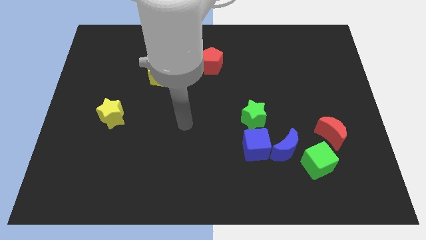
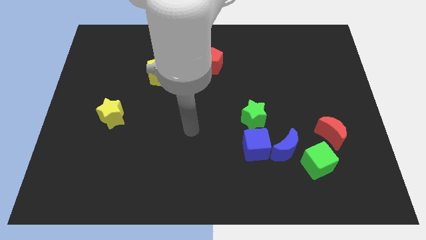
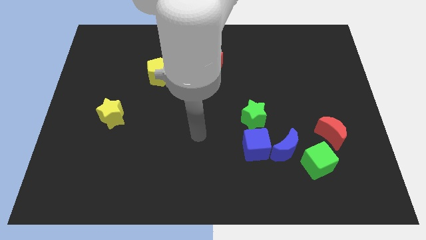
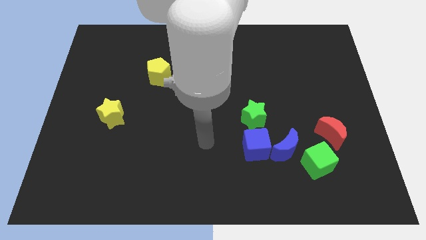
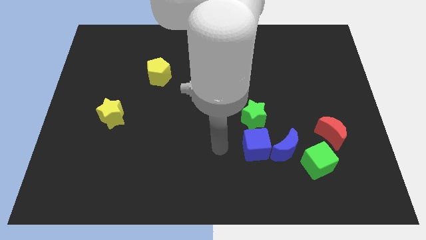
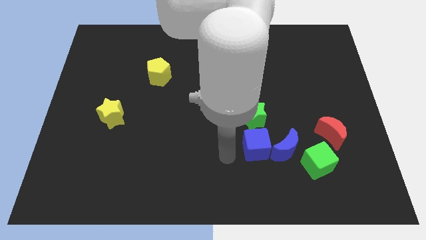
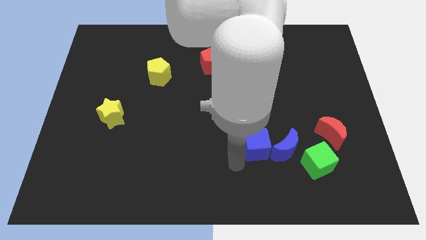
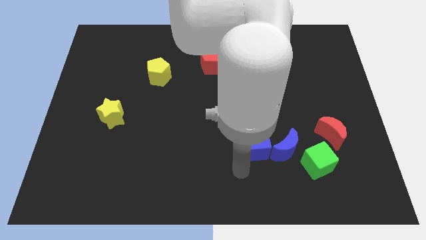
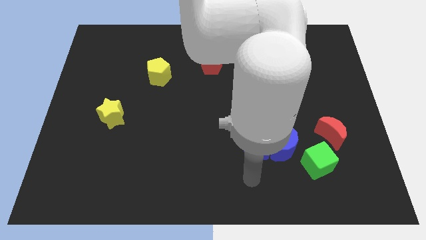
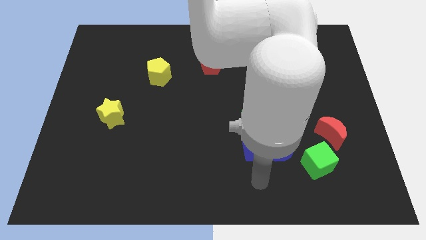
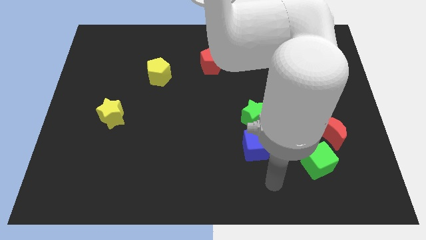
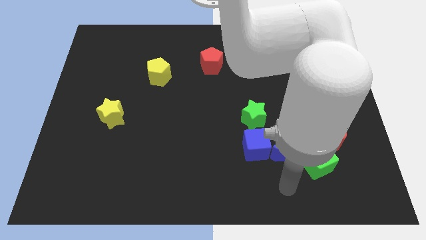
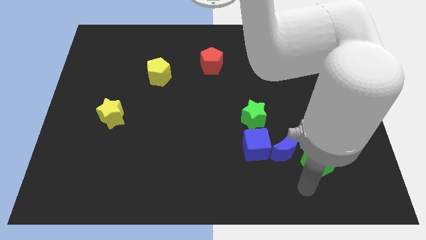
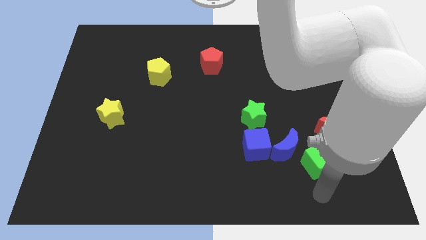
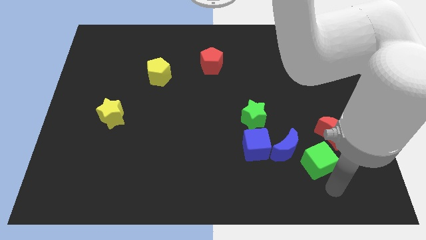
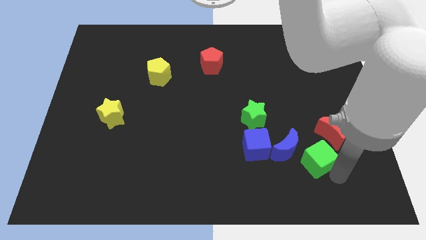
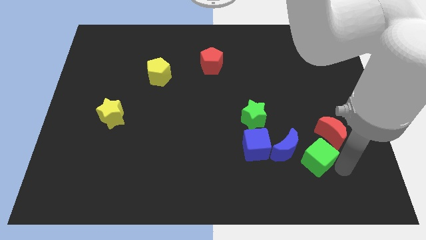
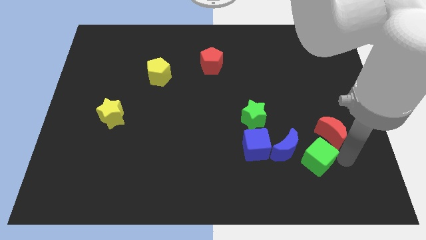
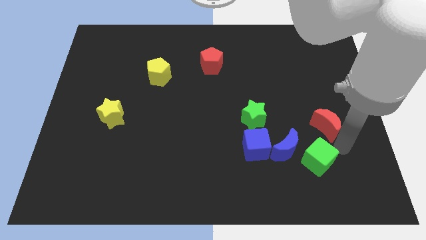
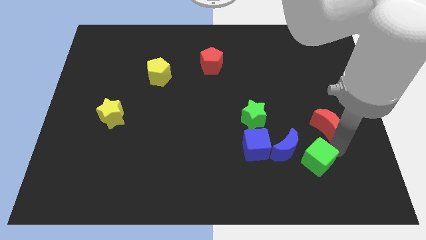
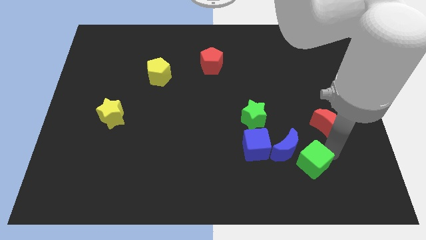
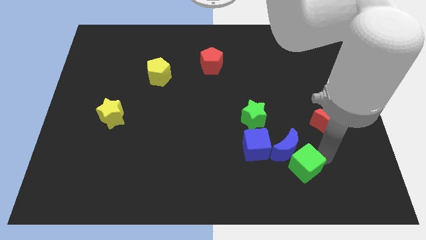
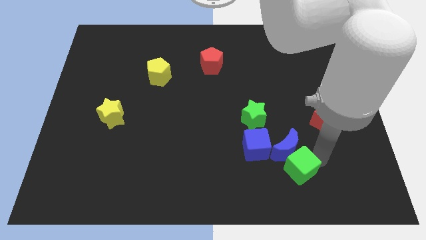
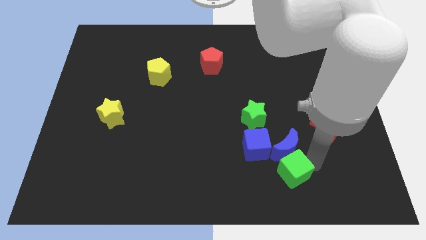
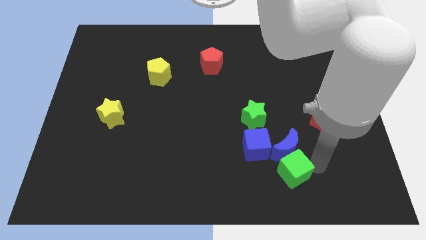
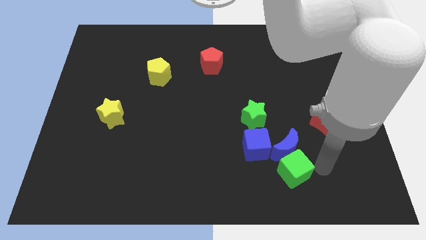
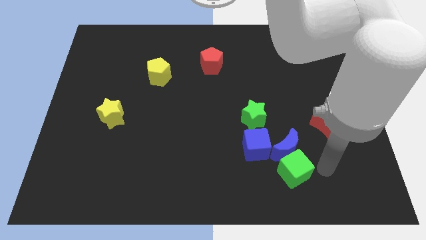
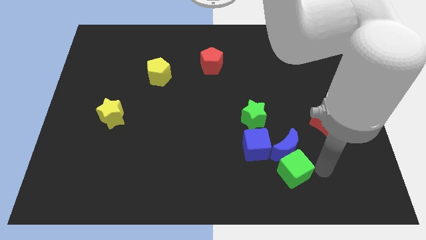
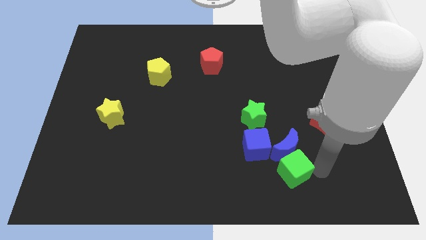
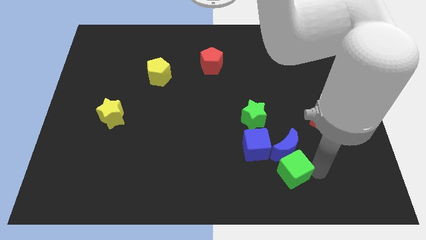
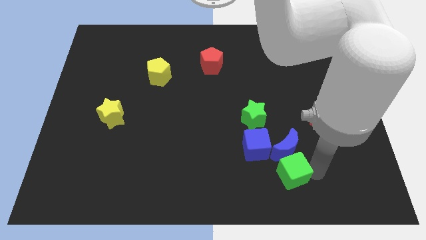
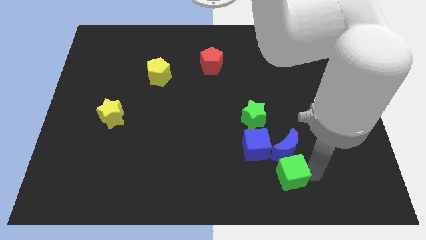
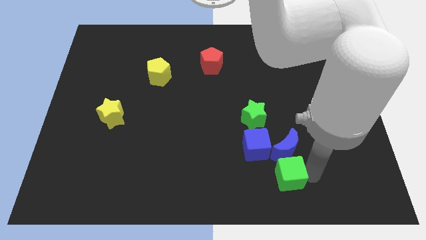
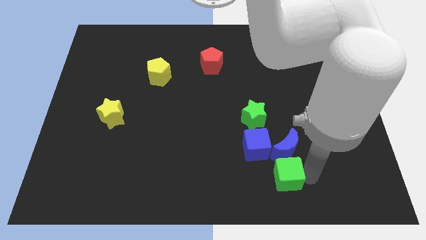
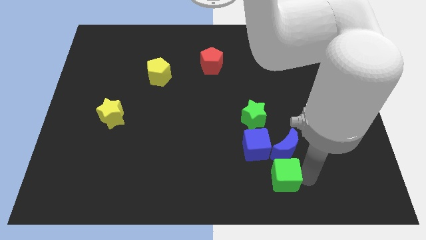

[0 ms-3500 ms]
slightly push the green cube left

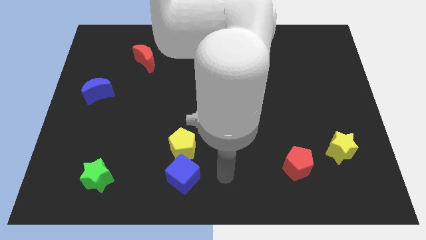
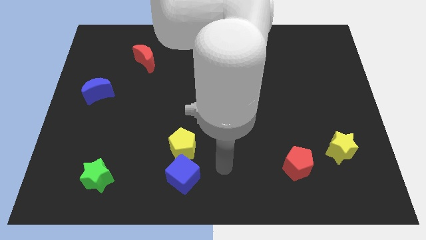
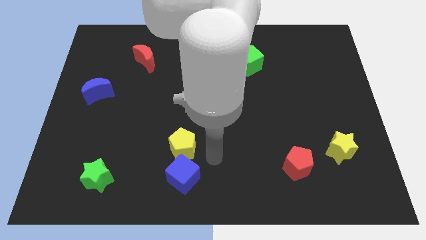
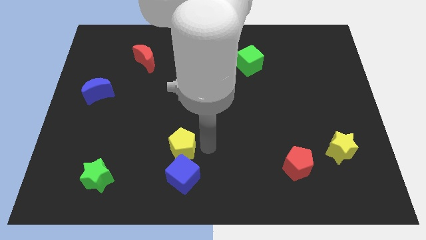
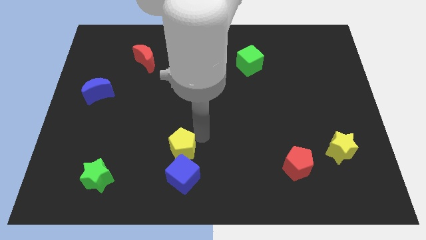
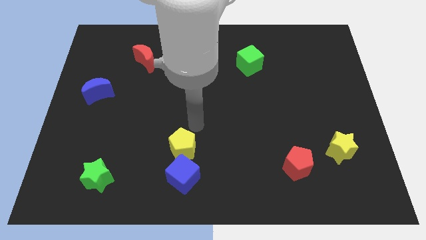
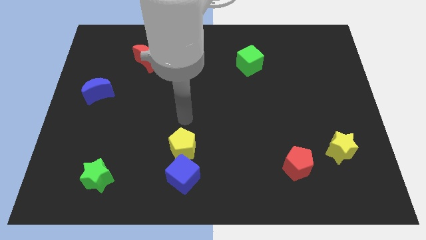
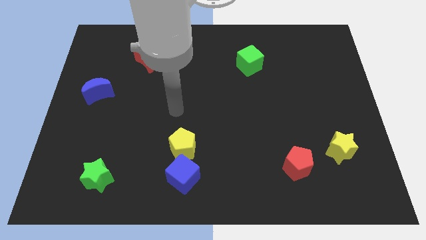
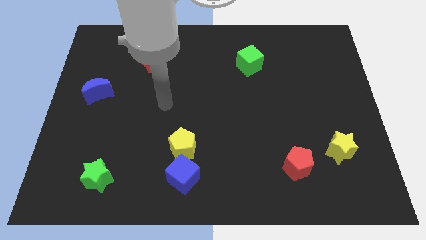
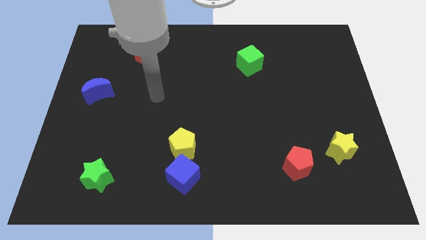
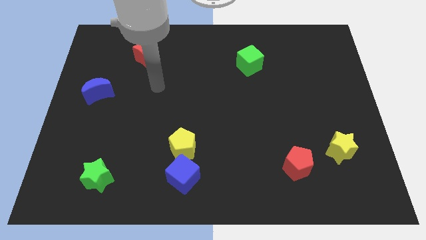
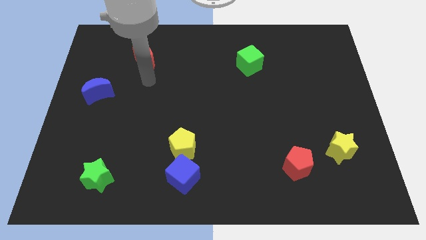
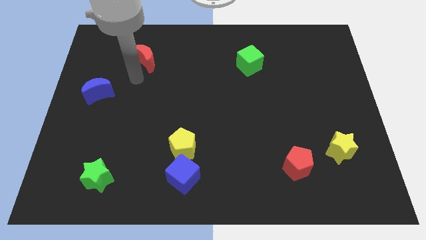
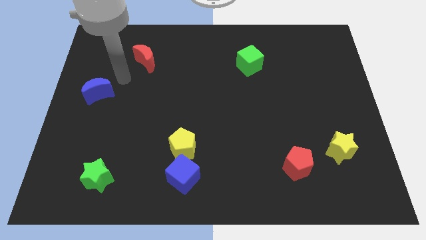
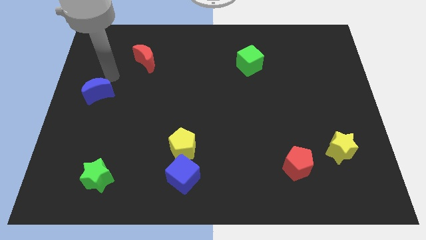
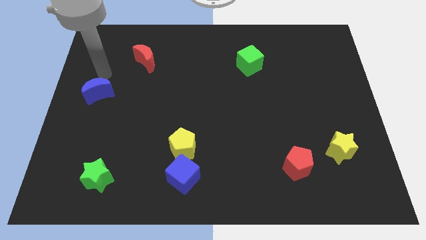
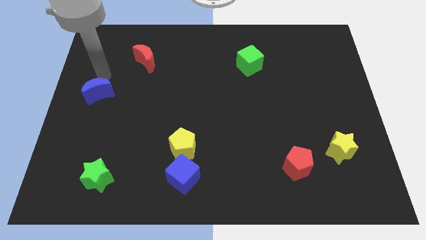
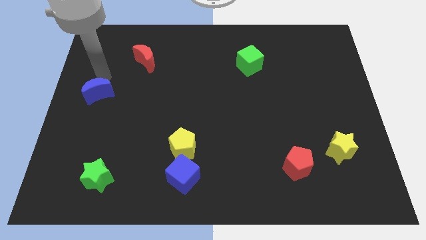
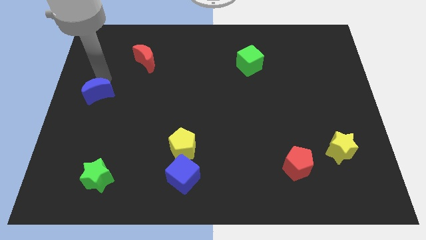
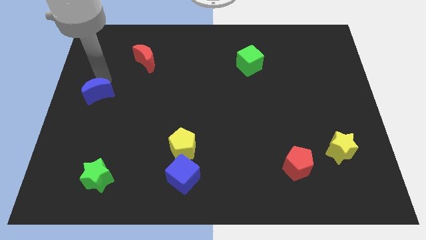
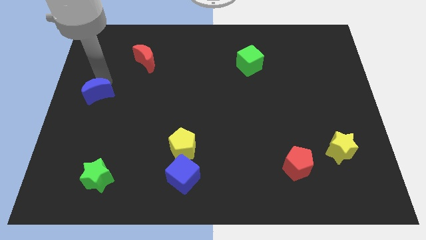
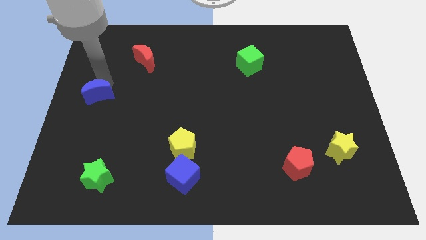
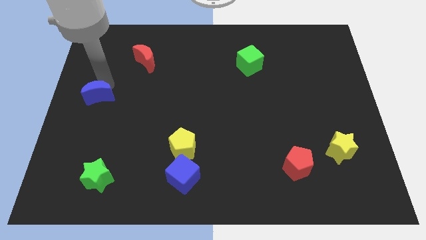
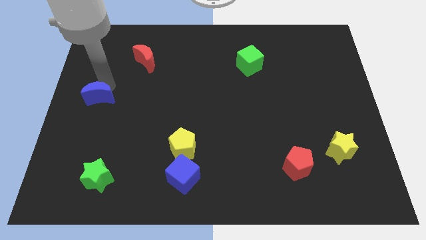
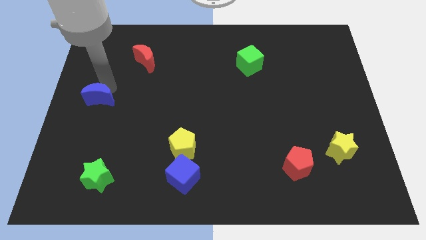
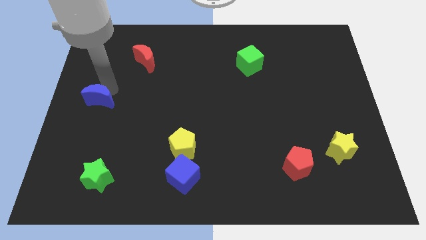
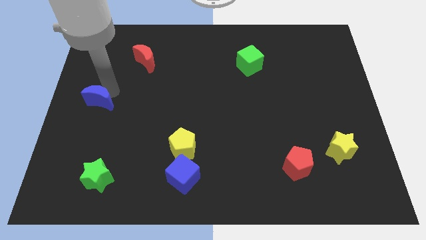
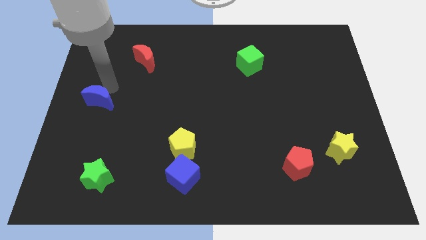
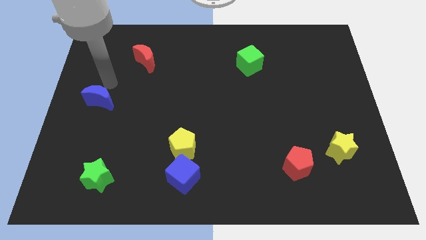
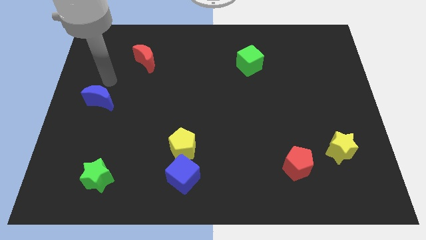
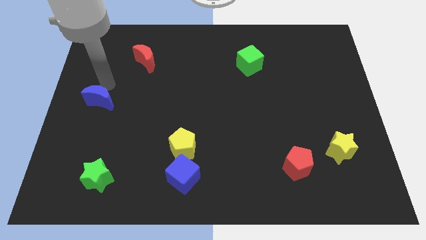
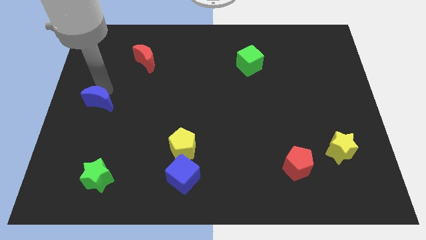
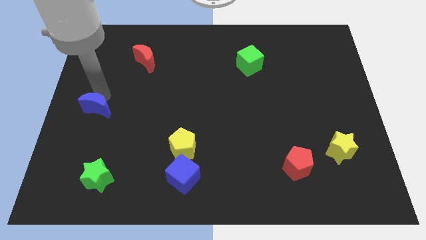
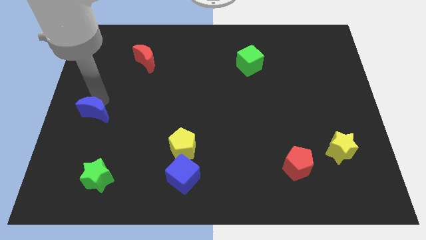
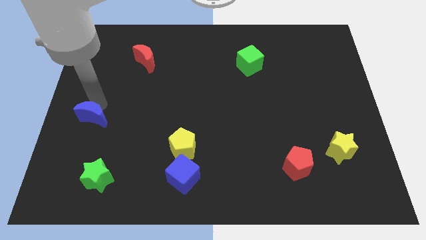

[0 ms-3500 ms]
slide the blue moon a bit down

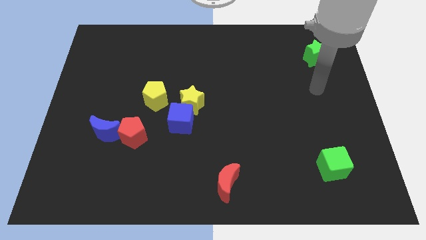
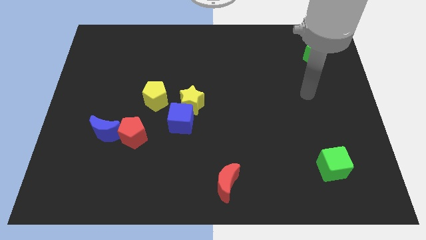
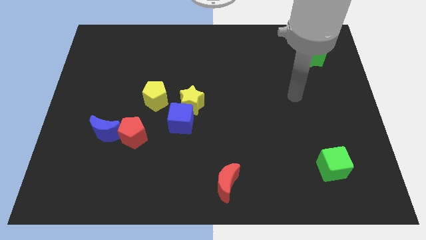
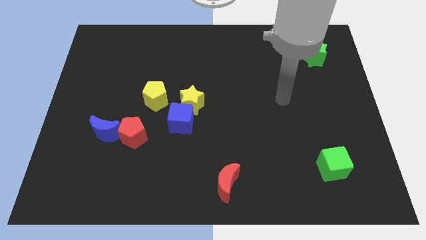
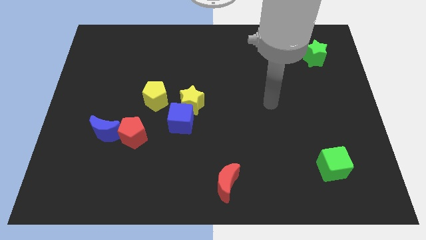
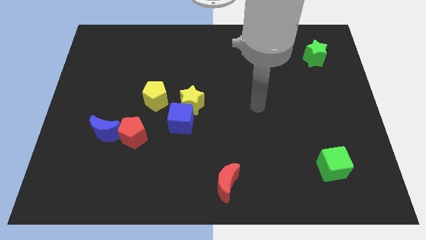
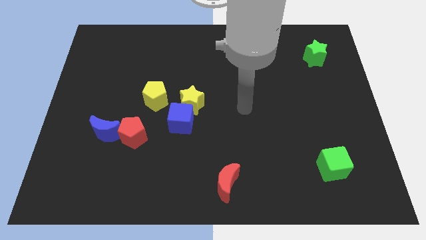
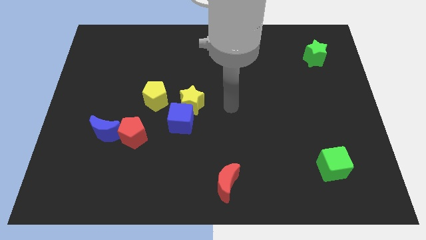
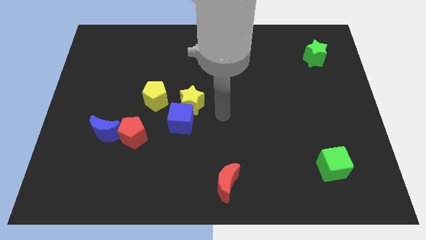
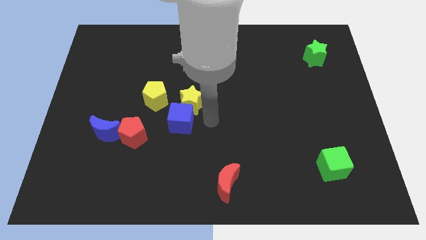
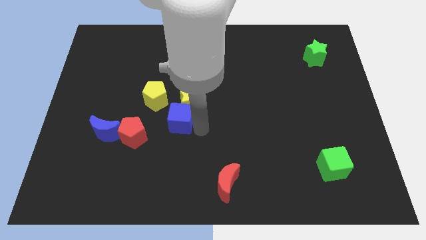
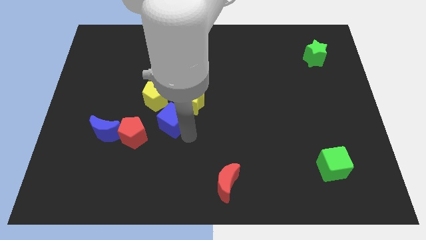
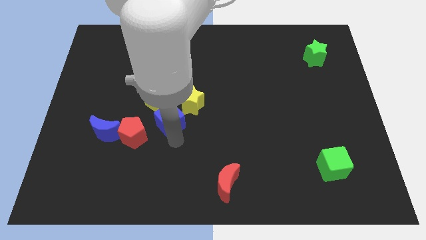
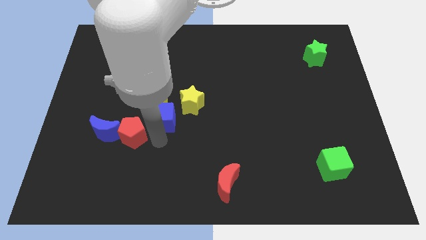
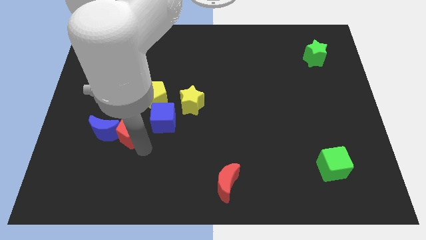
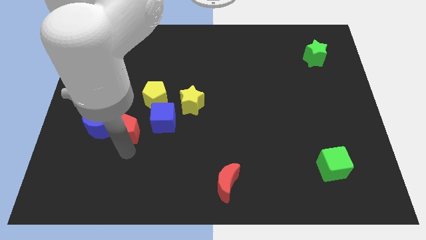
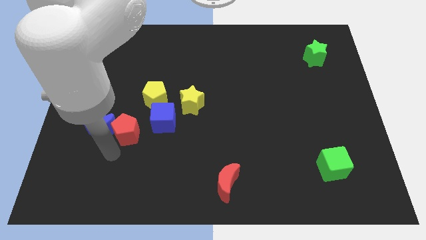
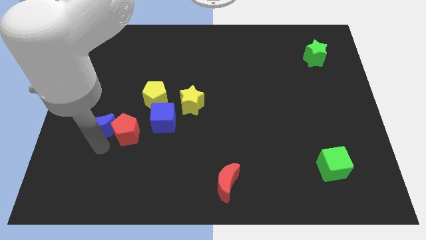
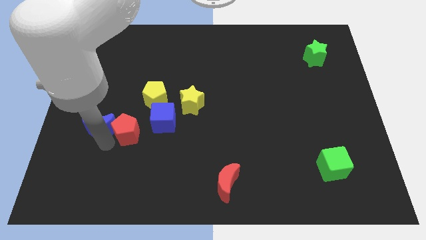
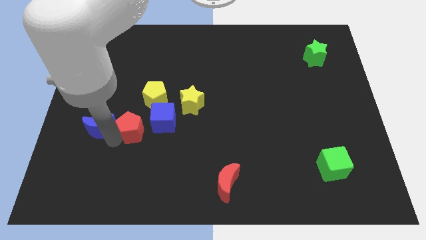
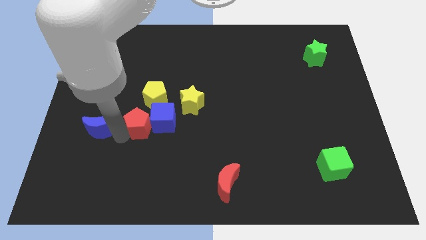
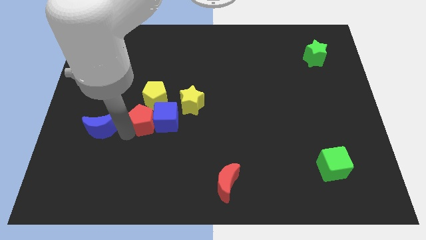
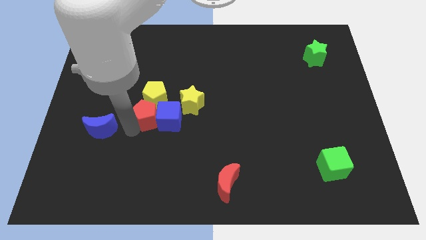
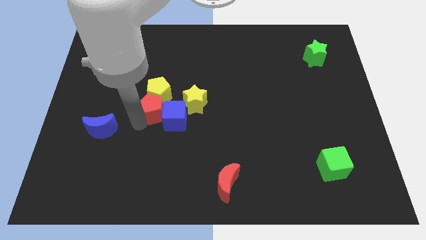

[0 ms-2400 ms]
slide the red pentagon upwards and then right slightly
